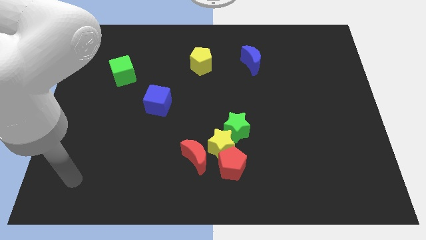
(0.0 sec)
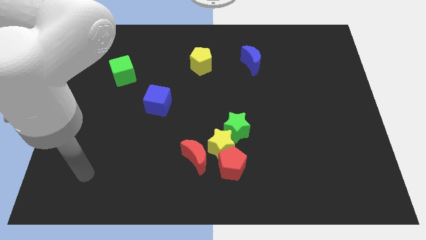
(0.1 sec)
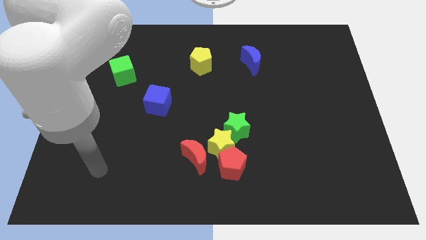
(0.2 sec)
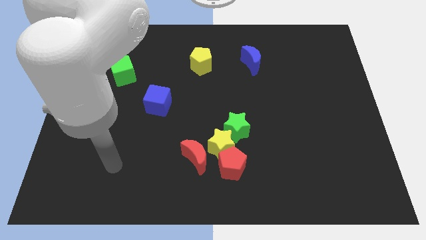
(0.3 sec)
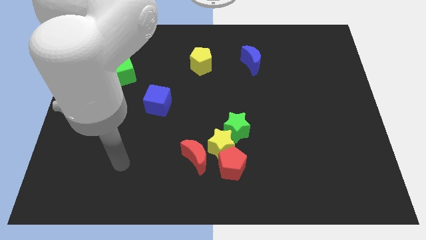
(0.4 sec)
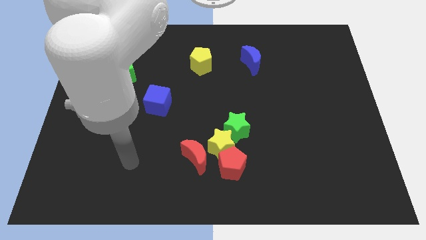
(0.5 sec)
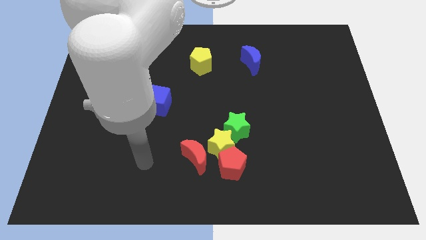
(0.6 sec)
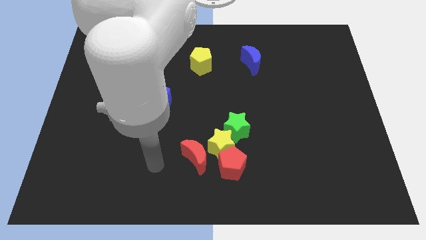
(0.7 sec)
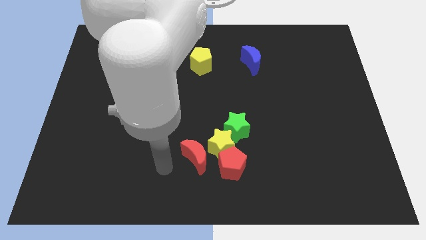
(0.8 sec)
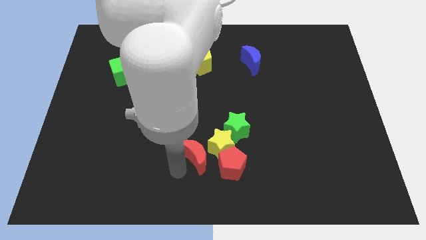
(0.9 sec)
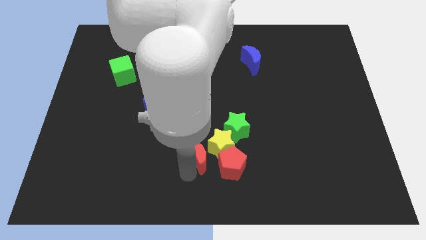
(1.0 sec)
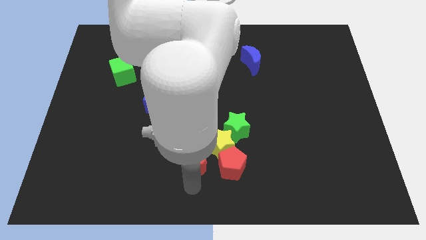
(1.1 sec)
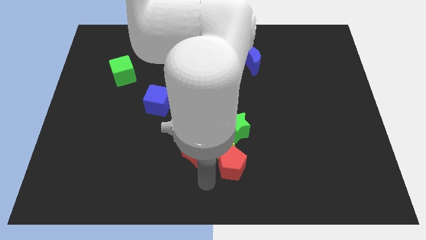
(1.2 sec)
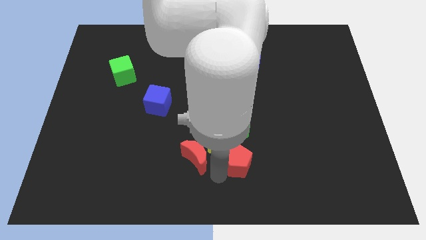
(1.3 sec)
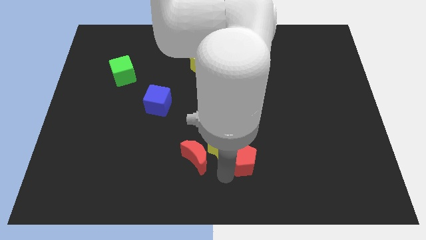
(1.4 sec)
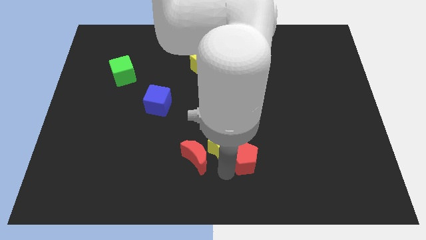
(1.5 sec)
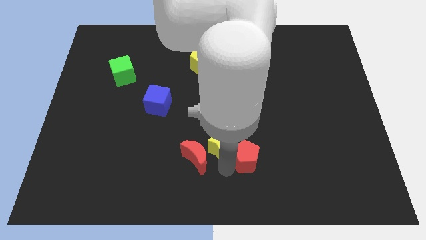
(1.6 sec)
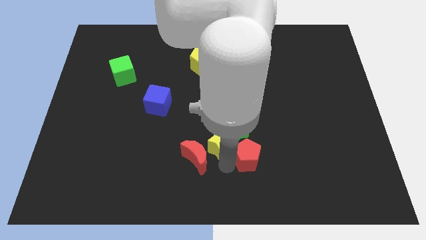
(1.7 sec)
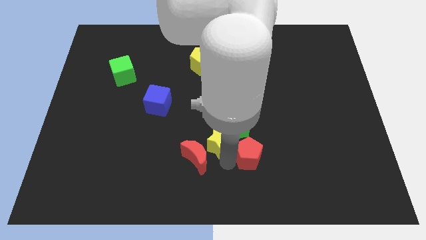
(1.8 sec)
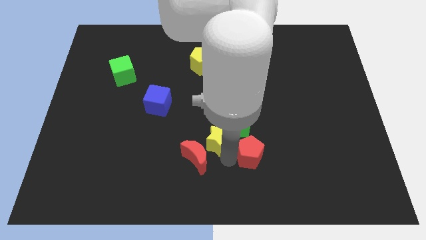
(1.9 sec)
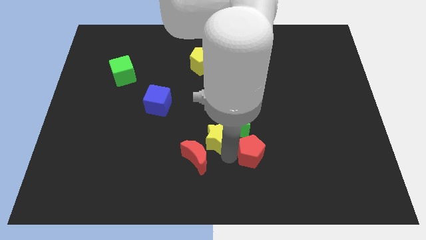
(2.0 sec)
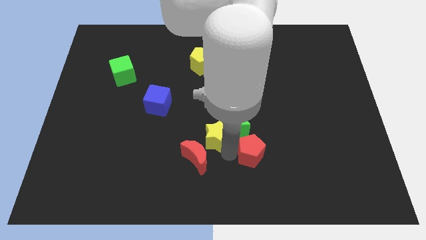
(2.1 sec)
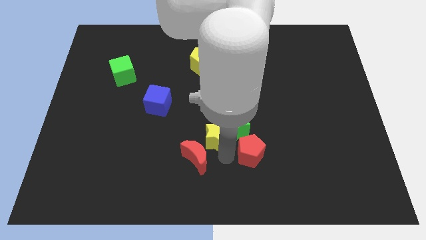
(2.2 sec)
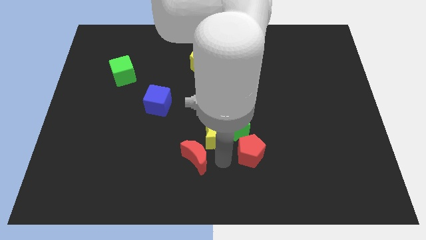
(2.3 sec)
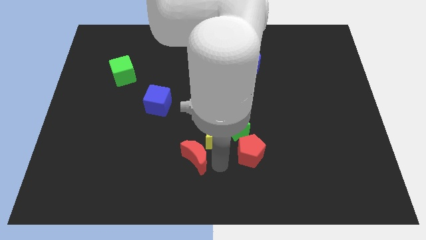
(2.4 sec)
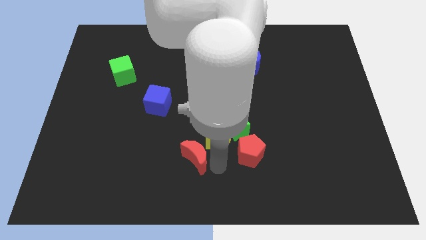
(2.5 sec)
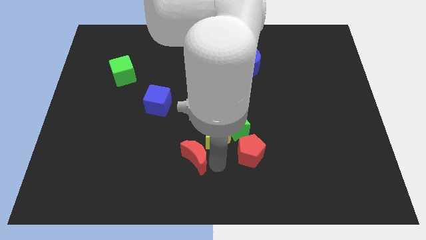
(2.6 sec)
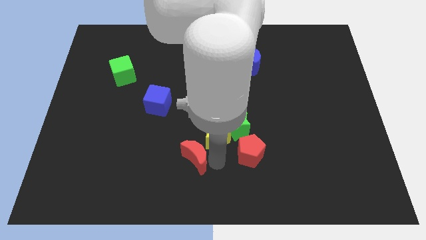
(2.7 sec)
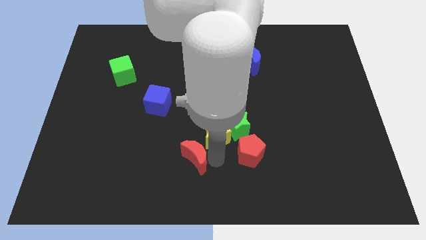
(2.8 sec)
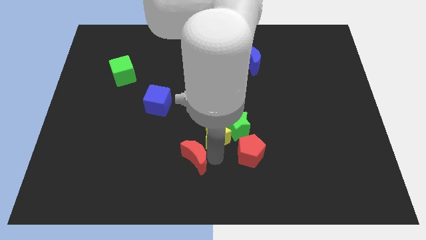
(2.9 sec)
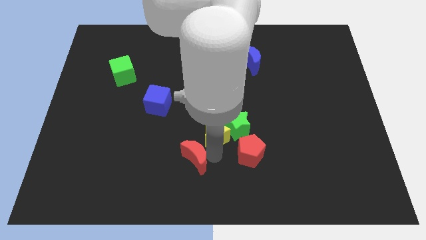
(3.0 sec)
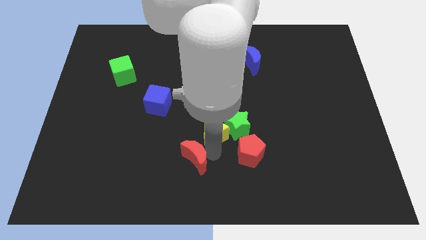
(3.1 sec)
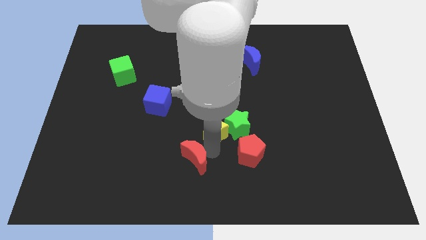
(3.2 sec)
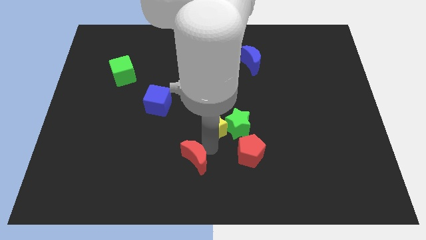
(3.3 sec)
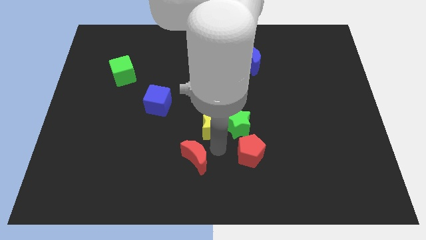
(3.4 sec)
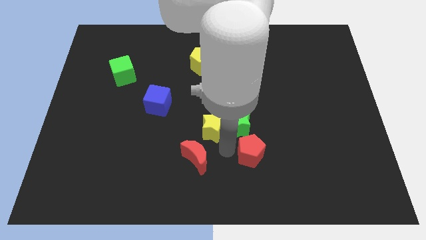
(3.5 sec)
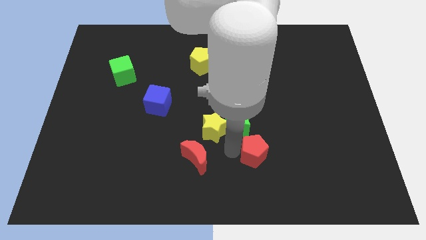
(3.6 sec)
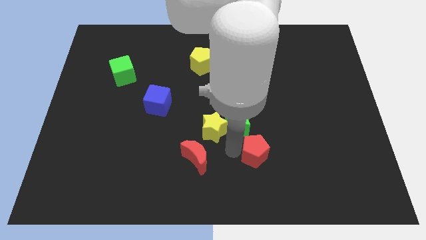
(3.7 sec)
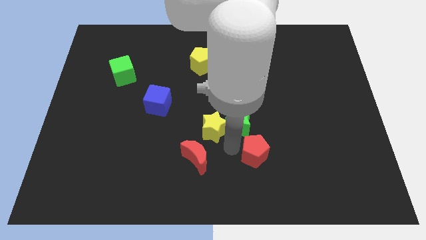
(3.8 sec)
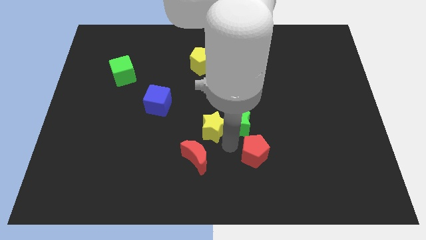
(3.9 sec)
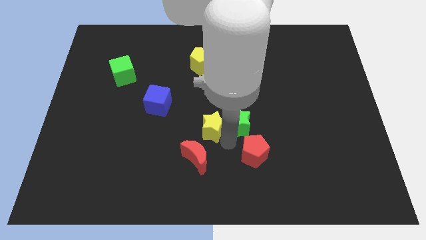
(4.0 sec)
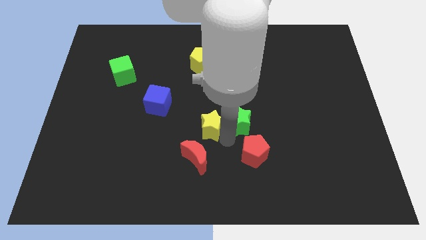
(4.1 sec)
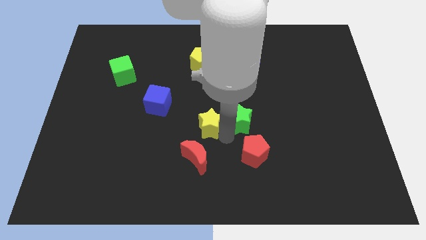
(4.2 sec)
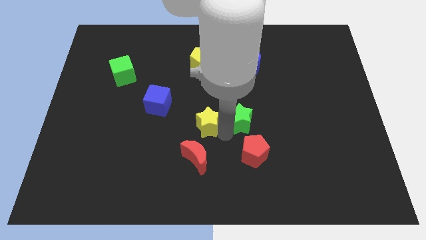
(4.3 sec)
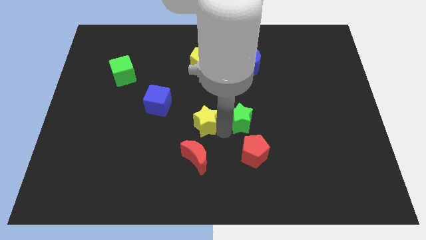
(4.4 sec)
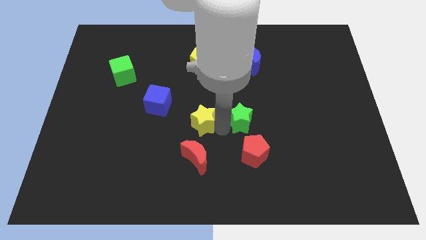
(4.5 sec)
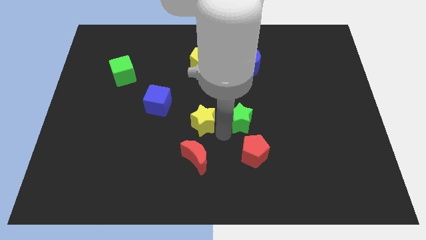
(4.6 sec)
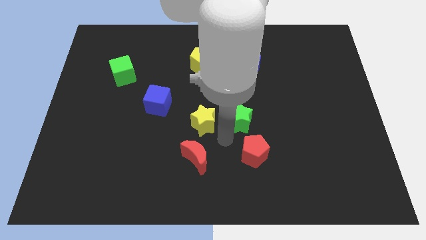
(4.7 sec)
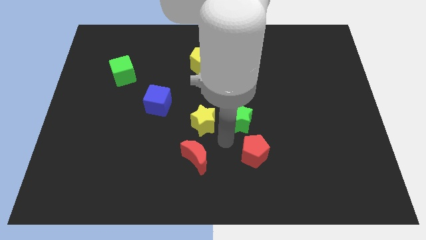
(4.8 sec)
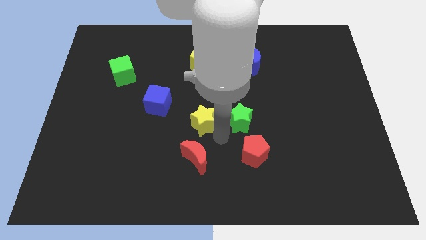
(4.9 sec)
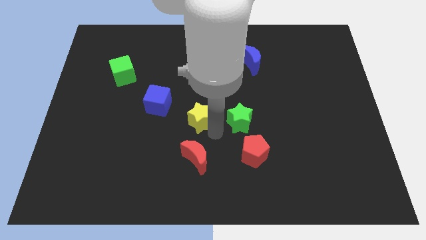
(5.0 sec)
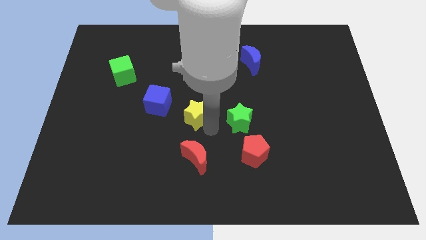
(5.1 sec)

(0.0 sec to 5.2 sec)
move the yellow star away from the clump

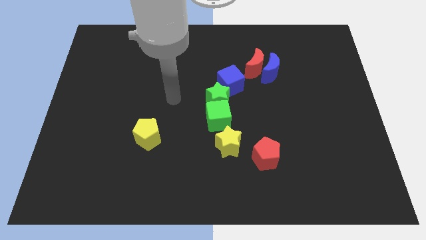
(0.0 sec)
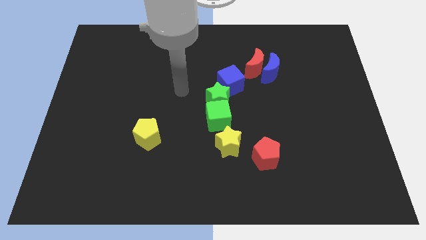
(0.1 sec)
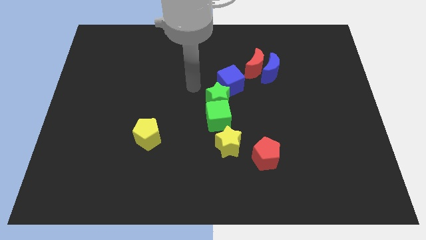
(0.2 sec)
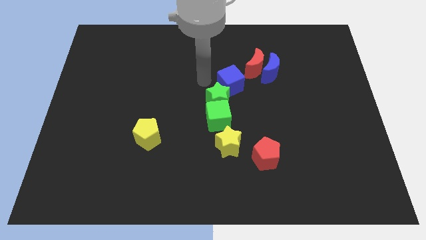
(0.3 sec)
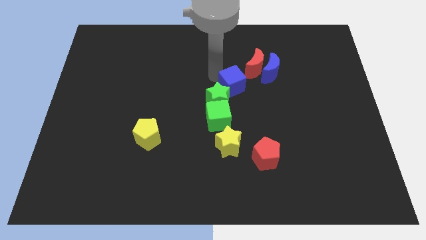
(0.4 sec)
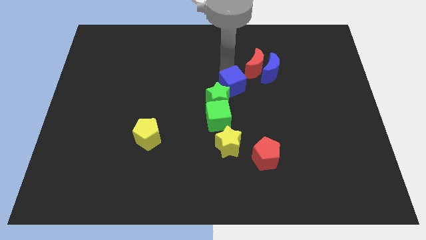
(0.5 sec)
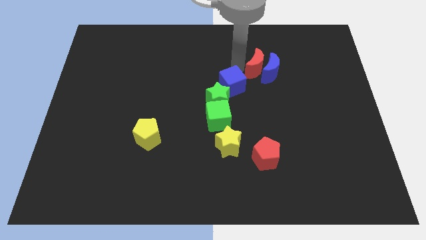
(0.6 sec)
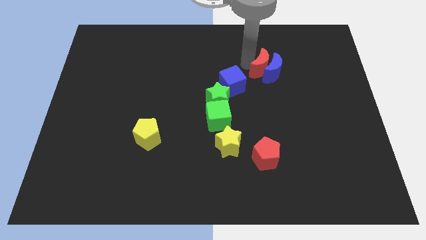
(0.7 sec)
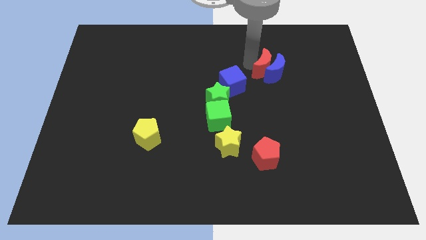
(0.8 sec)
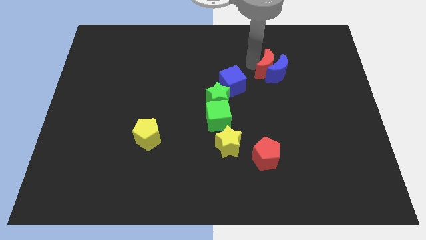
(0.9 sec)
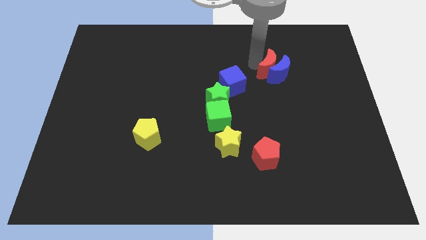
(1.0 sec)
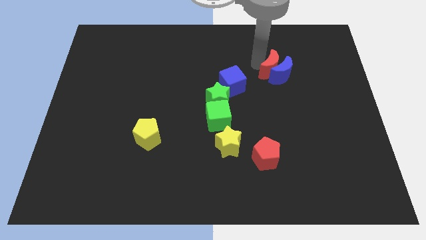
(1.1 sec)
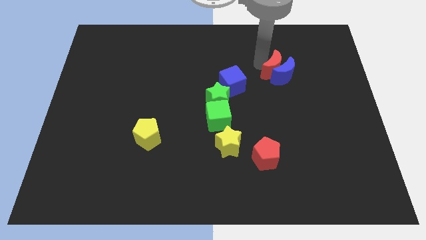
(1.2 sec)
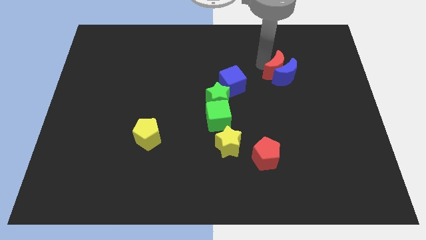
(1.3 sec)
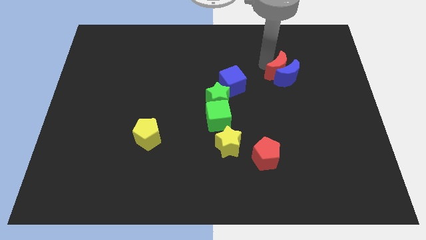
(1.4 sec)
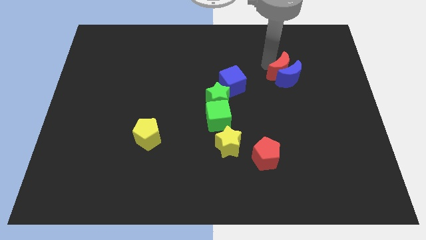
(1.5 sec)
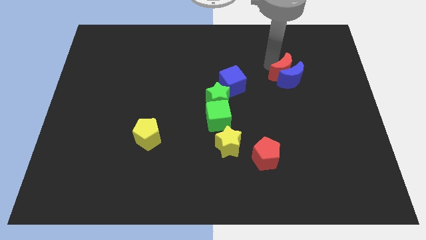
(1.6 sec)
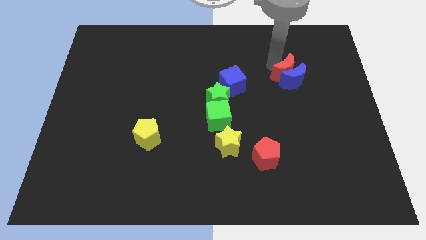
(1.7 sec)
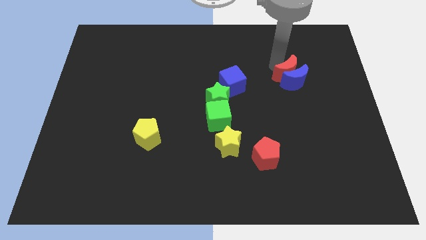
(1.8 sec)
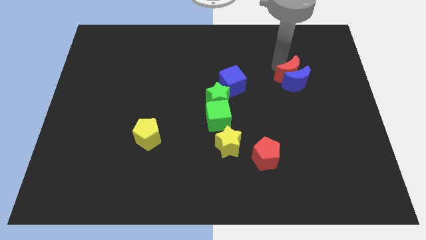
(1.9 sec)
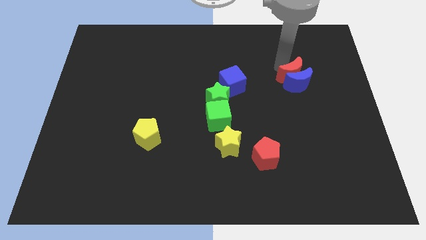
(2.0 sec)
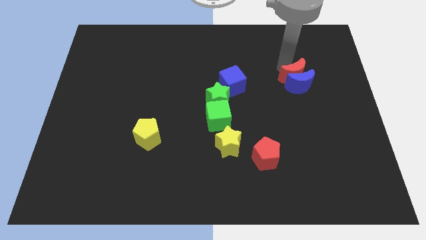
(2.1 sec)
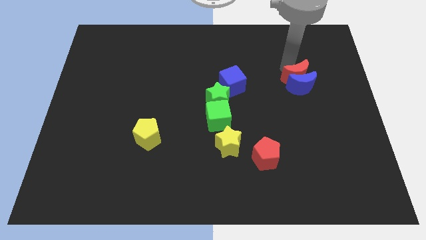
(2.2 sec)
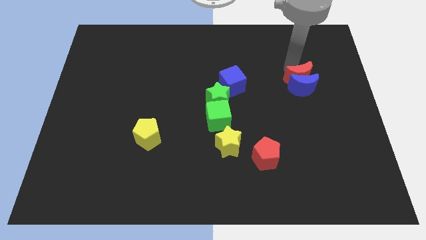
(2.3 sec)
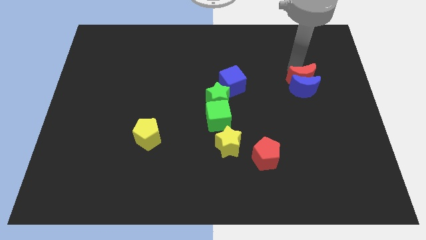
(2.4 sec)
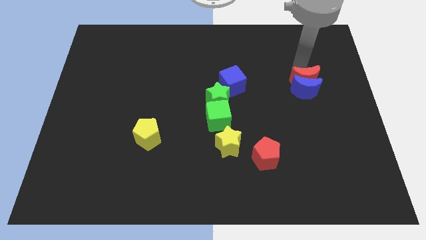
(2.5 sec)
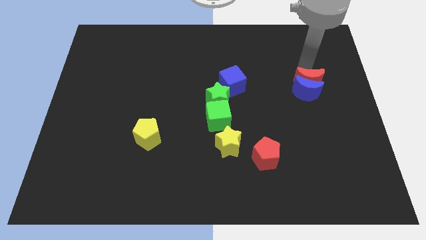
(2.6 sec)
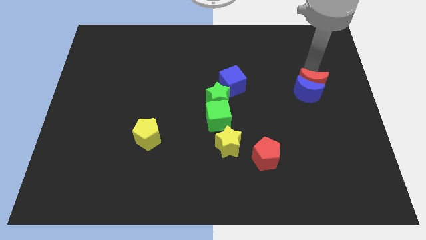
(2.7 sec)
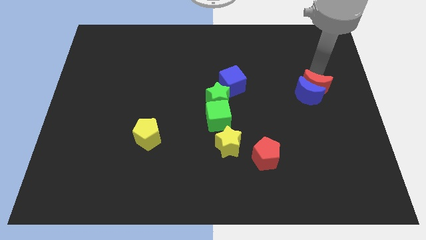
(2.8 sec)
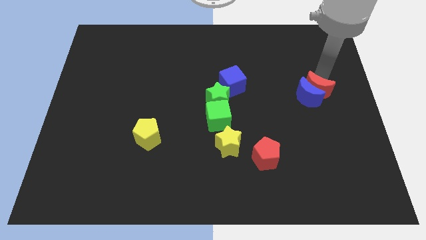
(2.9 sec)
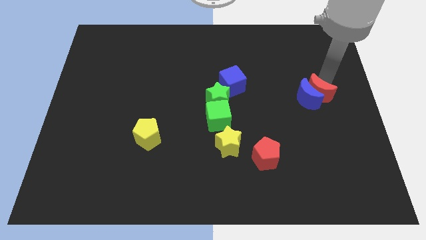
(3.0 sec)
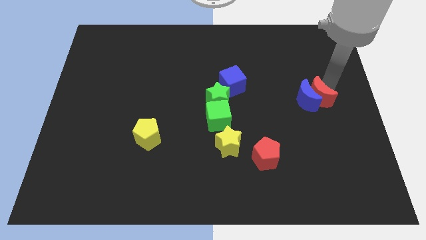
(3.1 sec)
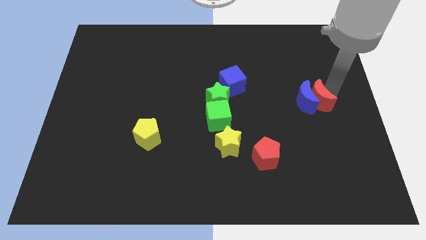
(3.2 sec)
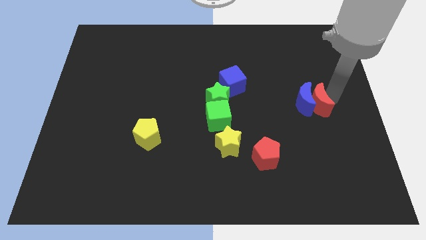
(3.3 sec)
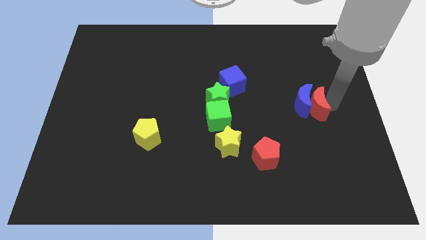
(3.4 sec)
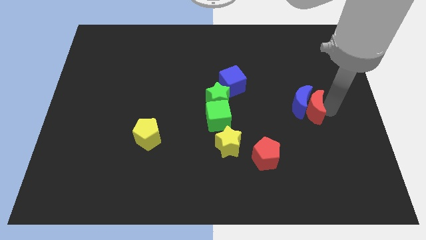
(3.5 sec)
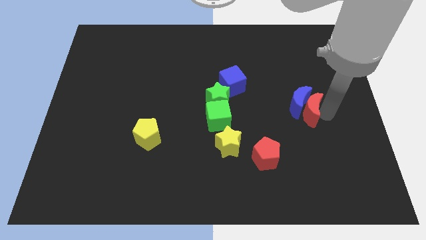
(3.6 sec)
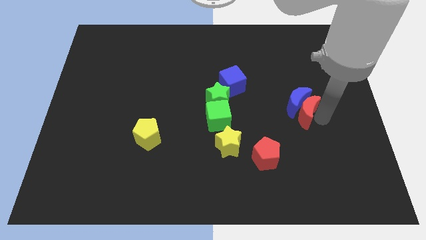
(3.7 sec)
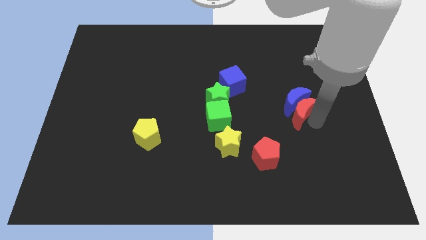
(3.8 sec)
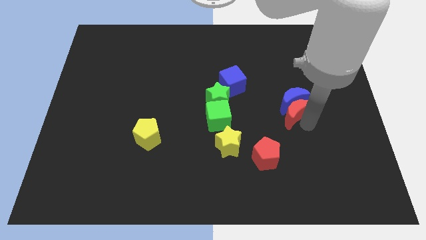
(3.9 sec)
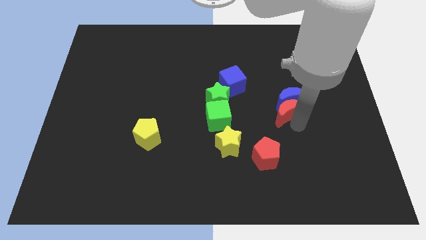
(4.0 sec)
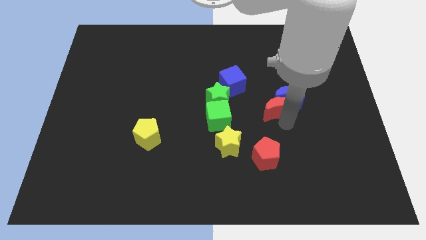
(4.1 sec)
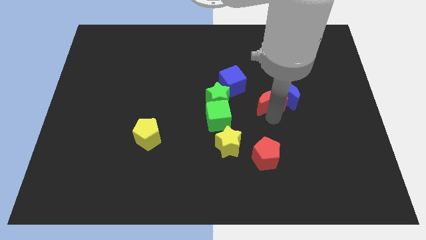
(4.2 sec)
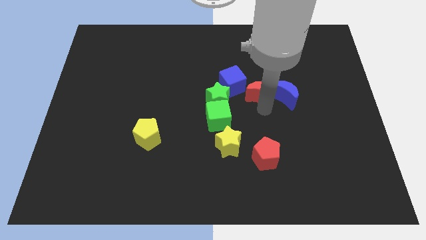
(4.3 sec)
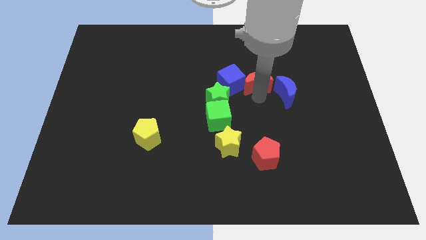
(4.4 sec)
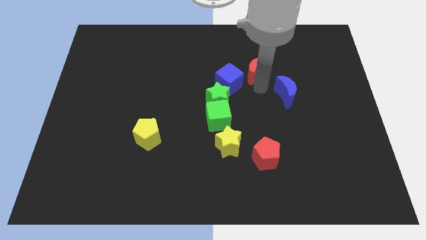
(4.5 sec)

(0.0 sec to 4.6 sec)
separate the blue moon from the red moon
